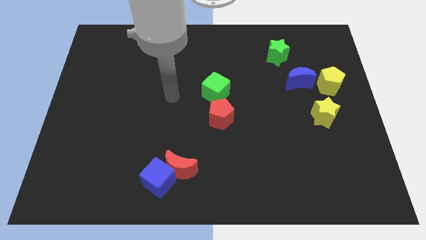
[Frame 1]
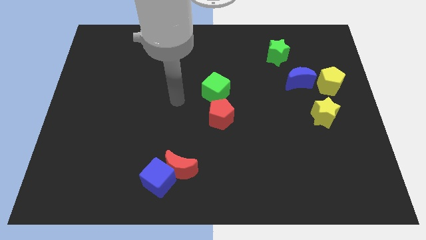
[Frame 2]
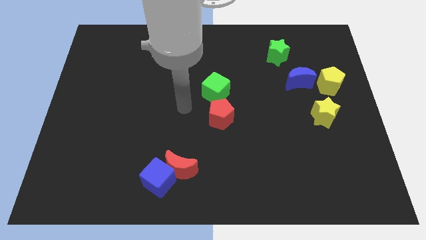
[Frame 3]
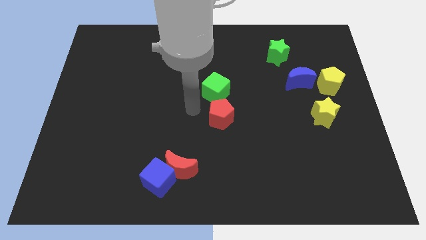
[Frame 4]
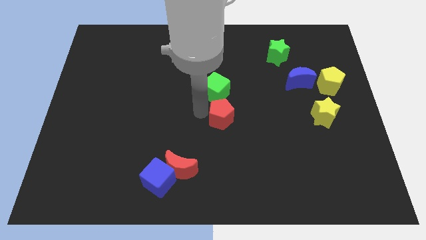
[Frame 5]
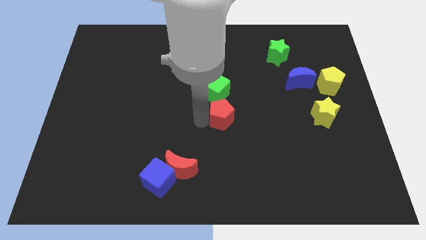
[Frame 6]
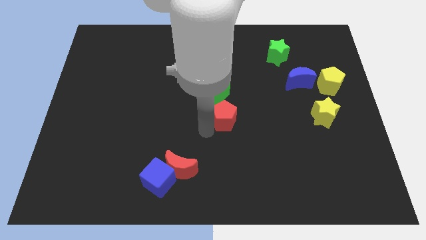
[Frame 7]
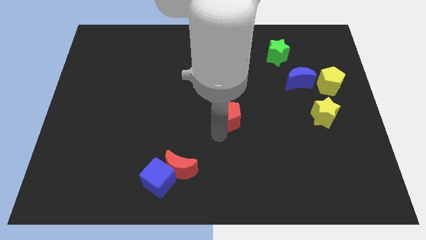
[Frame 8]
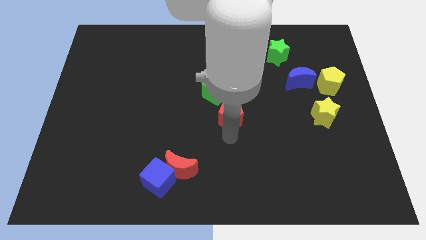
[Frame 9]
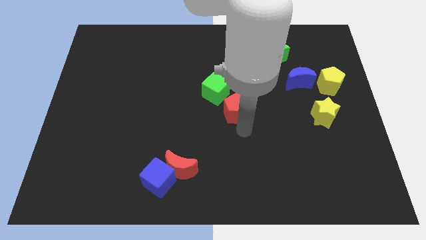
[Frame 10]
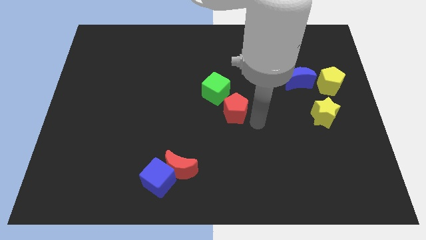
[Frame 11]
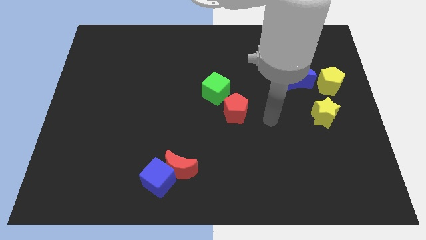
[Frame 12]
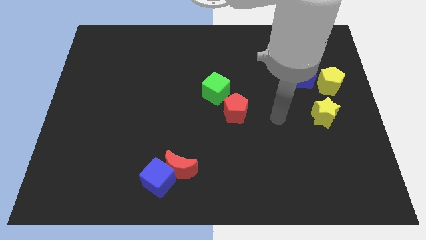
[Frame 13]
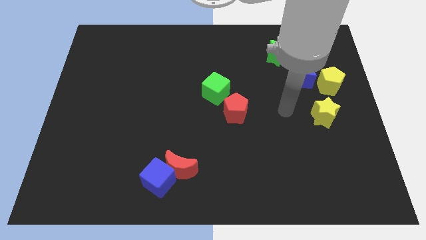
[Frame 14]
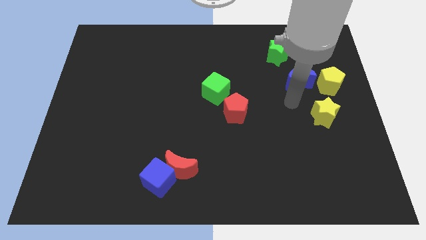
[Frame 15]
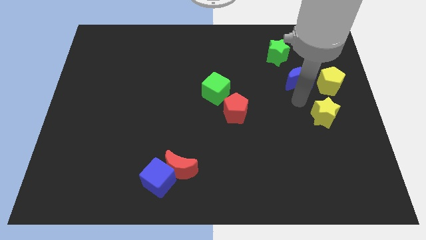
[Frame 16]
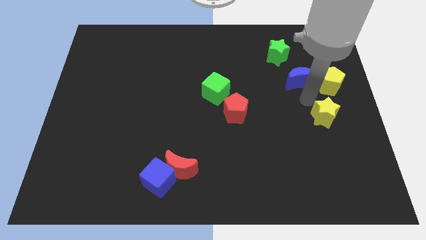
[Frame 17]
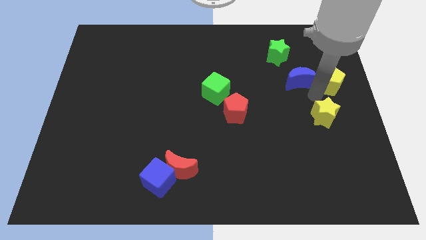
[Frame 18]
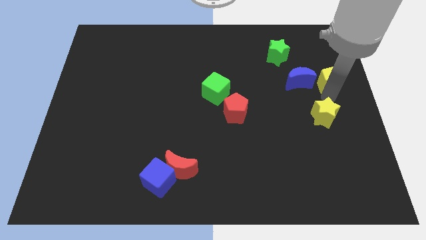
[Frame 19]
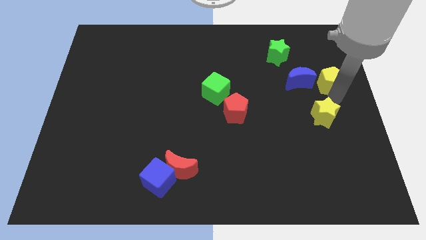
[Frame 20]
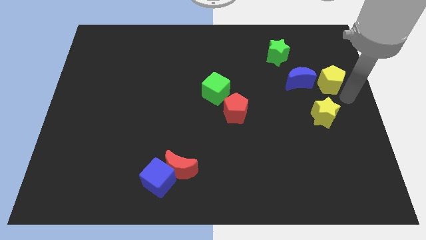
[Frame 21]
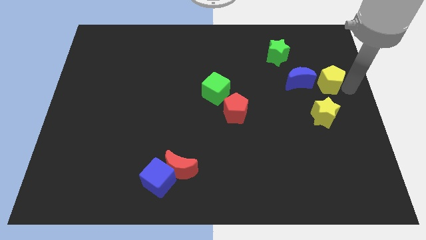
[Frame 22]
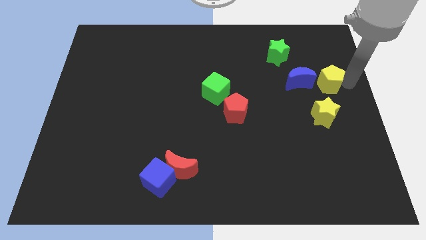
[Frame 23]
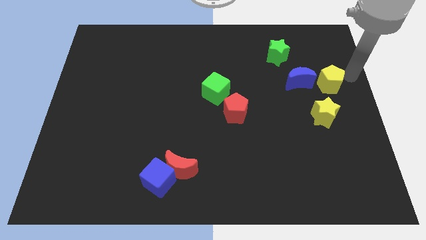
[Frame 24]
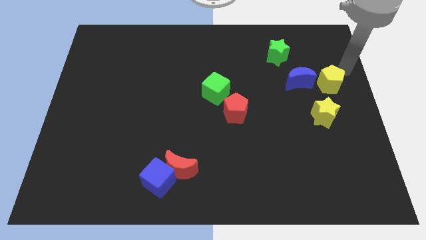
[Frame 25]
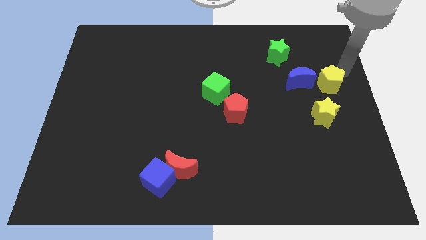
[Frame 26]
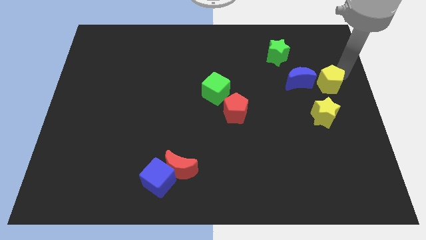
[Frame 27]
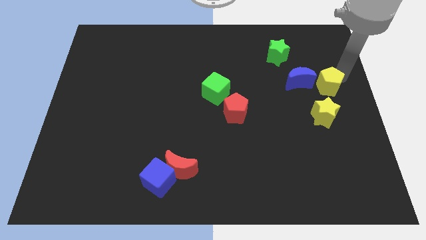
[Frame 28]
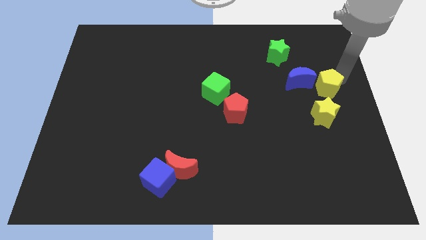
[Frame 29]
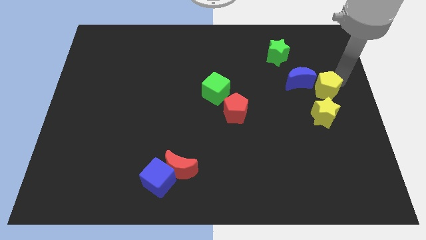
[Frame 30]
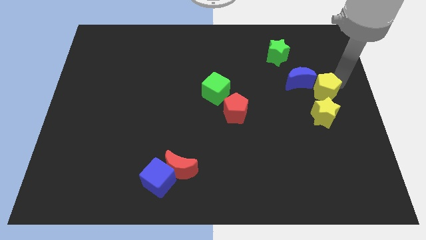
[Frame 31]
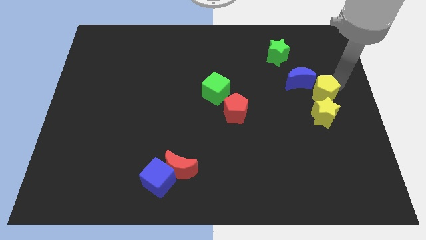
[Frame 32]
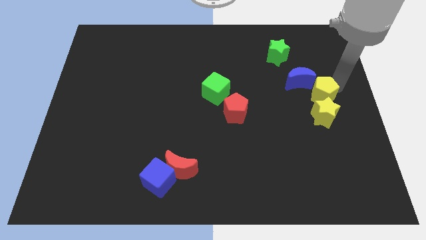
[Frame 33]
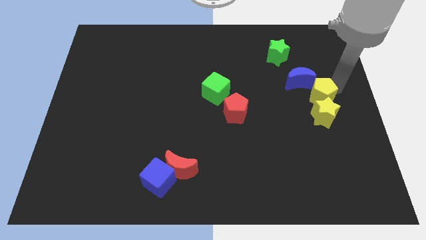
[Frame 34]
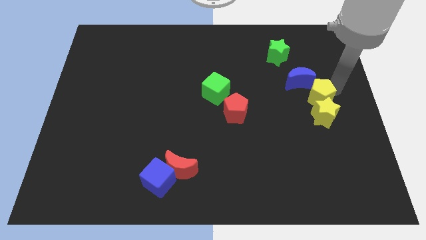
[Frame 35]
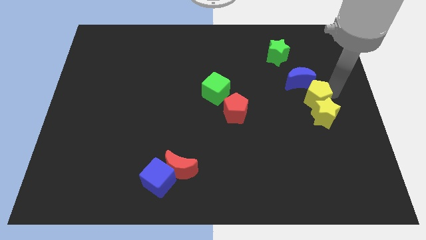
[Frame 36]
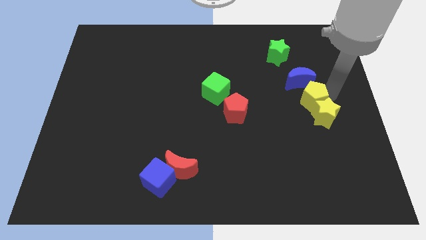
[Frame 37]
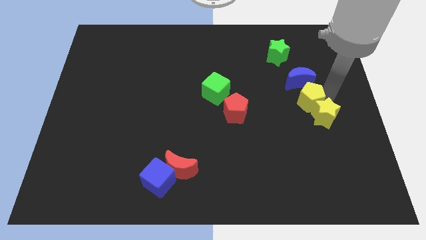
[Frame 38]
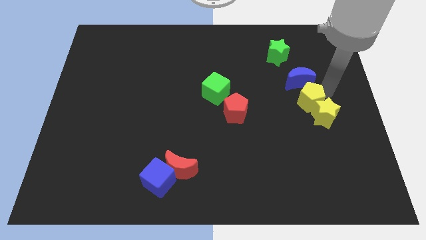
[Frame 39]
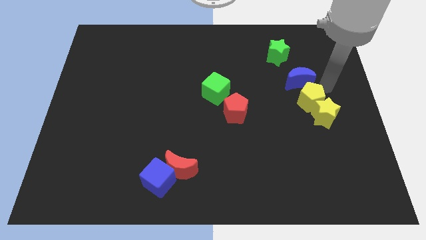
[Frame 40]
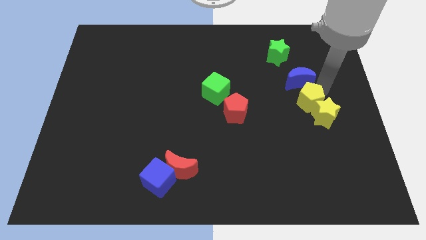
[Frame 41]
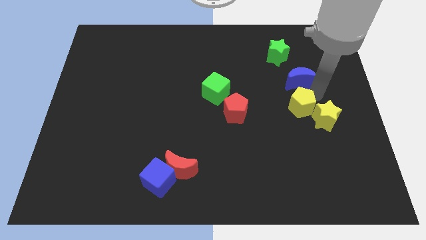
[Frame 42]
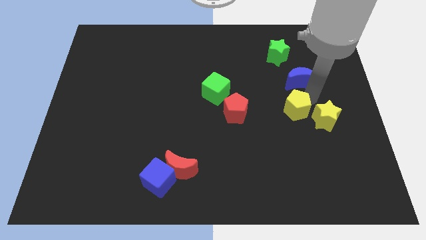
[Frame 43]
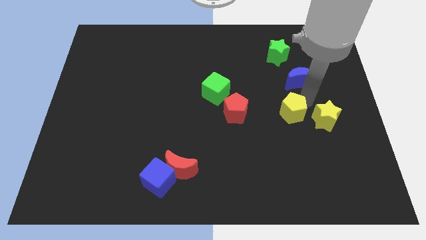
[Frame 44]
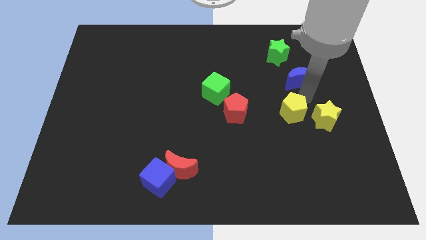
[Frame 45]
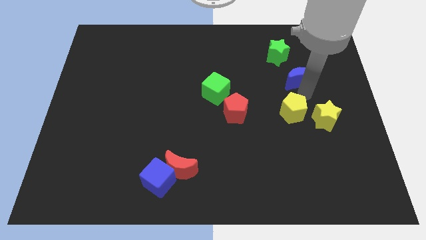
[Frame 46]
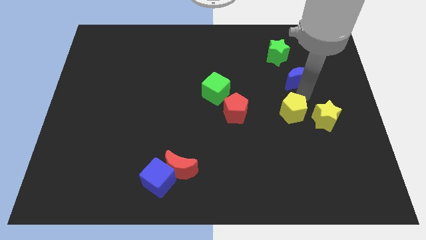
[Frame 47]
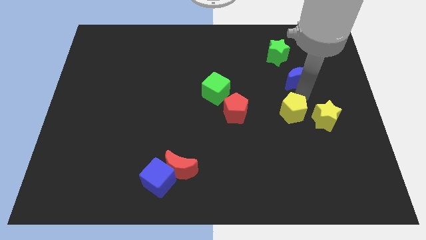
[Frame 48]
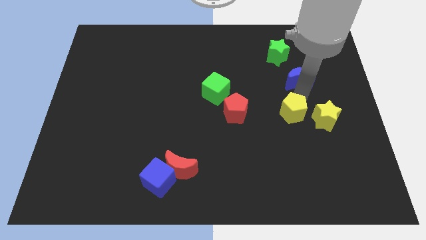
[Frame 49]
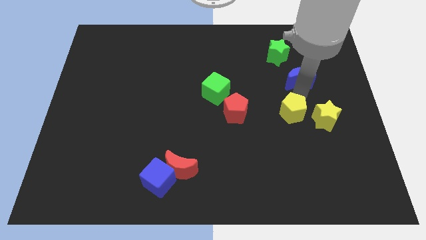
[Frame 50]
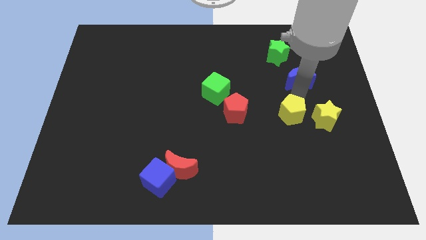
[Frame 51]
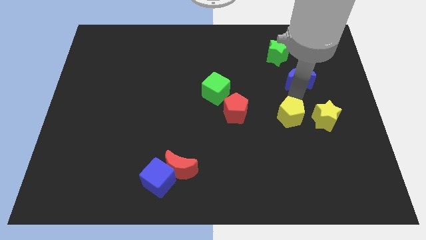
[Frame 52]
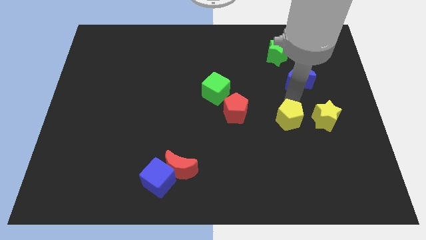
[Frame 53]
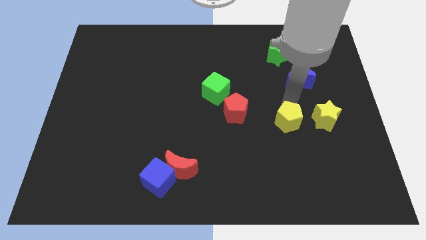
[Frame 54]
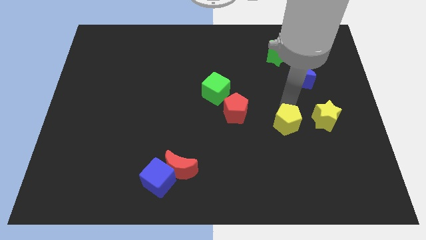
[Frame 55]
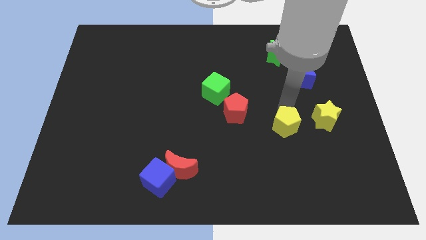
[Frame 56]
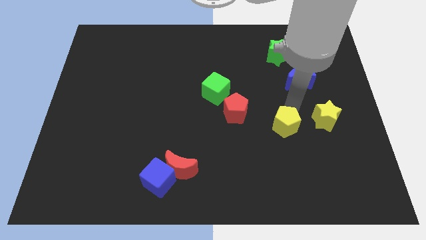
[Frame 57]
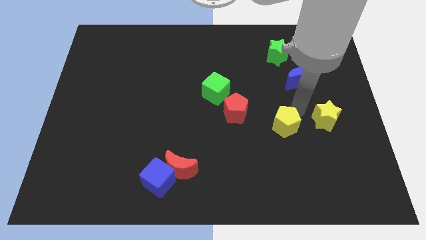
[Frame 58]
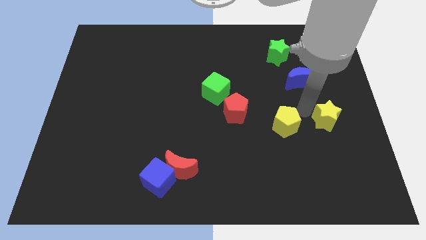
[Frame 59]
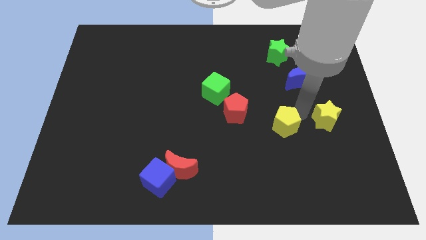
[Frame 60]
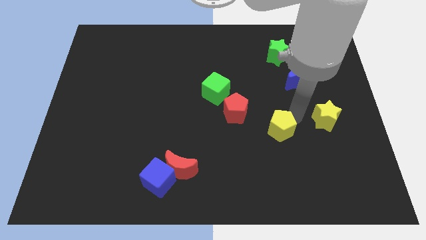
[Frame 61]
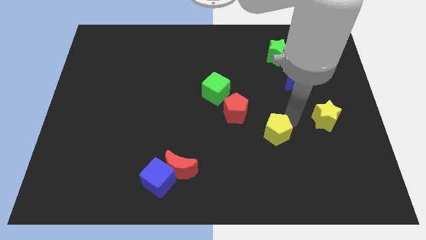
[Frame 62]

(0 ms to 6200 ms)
move the yellow pentagon downwards and left

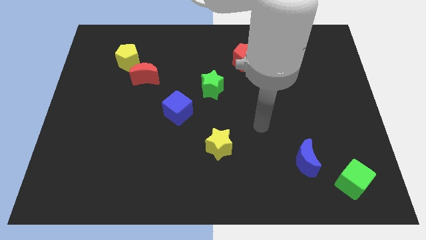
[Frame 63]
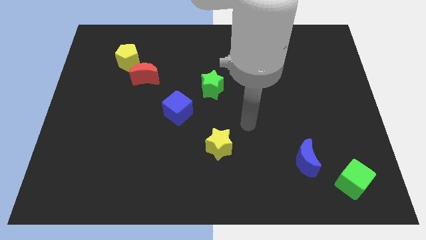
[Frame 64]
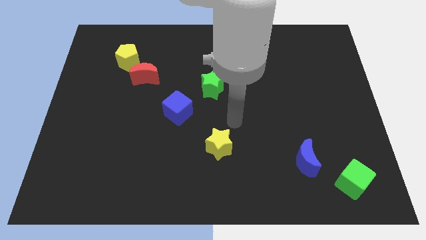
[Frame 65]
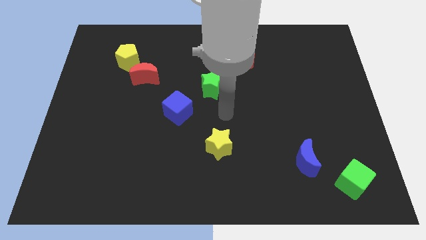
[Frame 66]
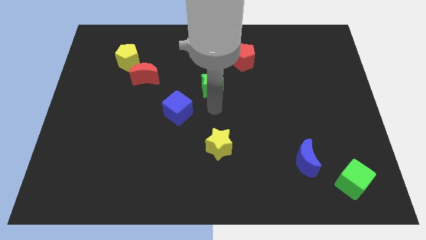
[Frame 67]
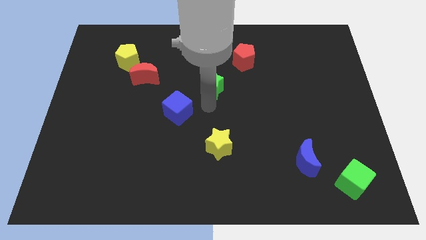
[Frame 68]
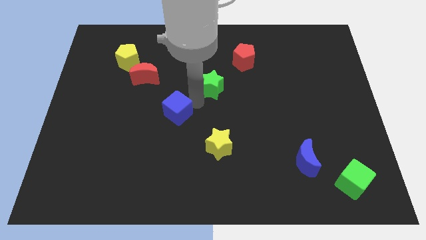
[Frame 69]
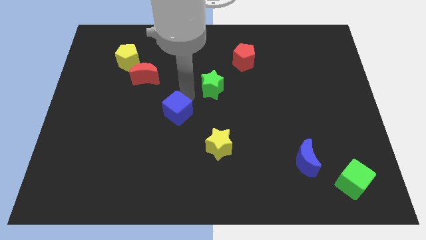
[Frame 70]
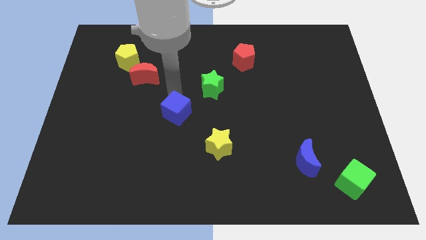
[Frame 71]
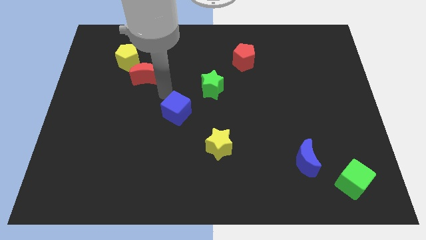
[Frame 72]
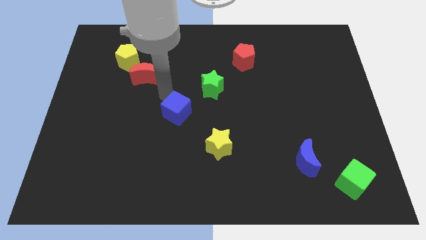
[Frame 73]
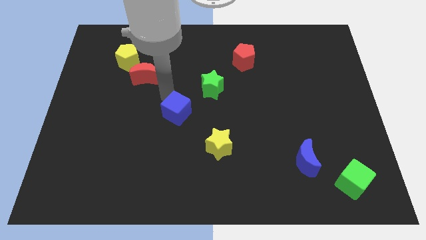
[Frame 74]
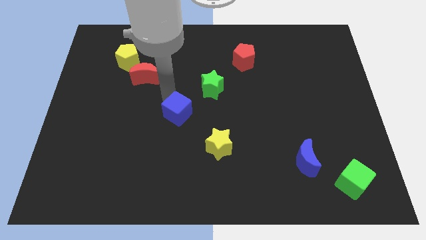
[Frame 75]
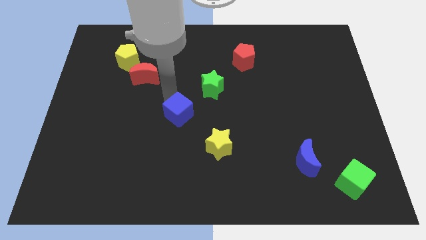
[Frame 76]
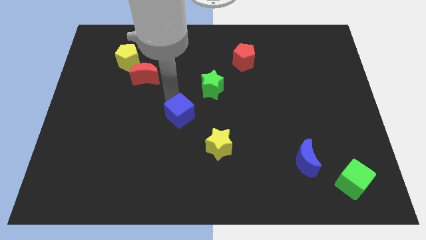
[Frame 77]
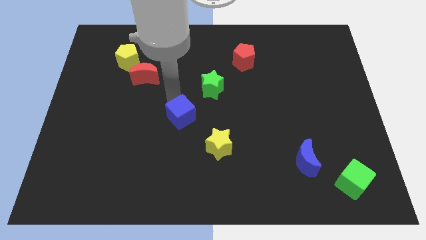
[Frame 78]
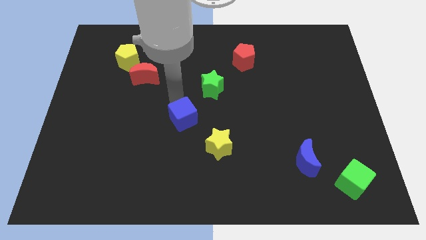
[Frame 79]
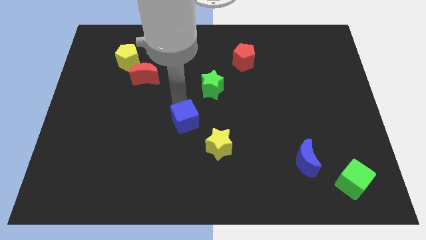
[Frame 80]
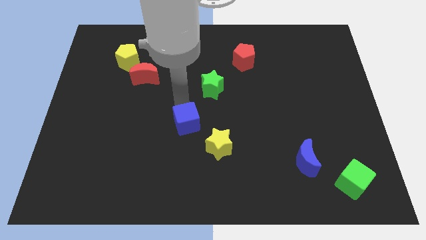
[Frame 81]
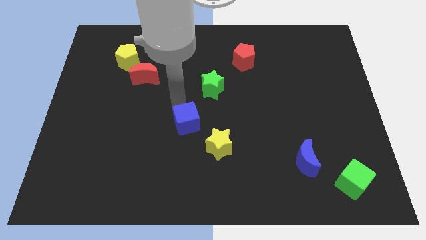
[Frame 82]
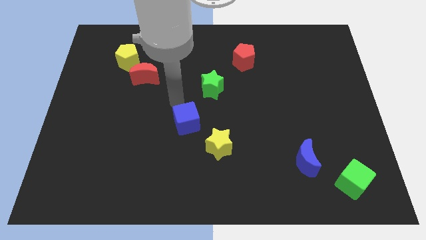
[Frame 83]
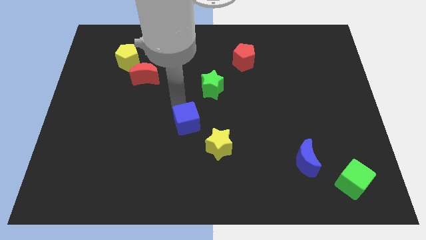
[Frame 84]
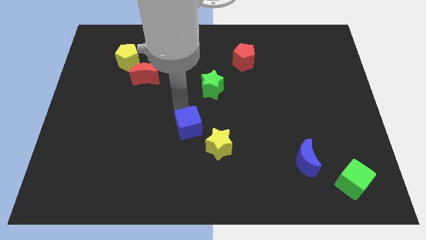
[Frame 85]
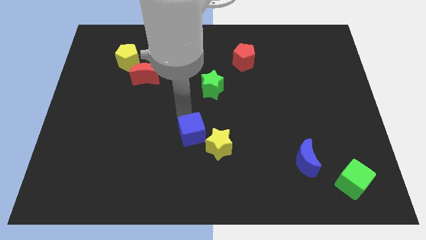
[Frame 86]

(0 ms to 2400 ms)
slightly slide the blue cube down and to the right diagonally
